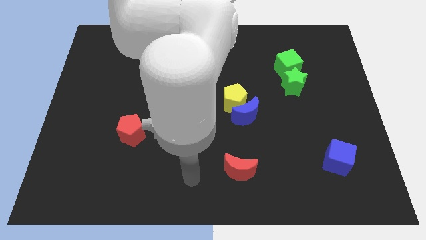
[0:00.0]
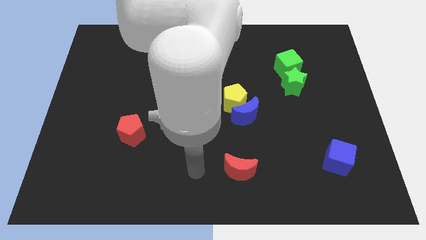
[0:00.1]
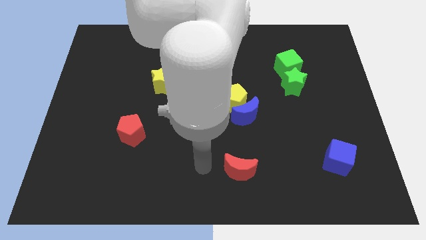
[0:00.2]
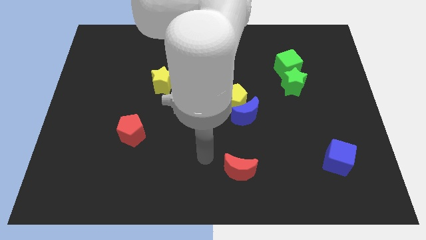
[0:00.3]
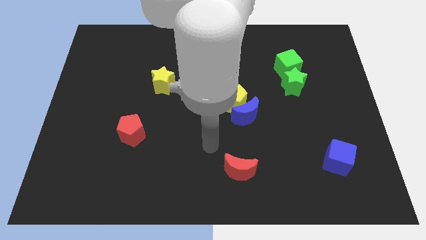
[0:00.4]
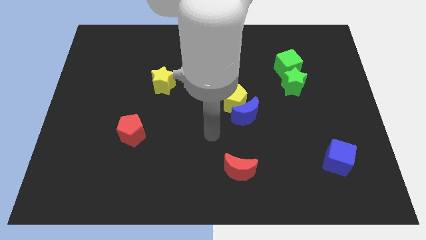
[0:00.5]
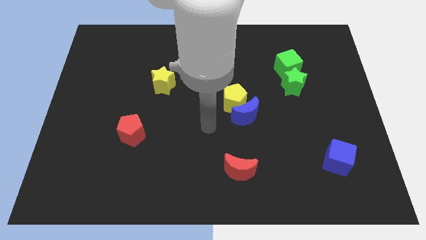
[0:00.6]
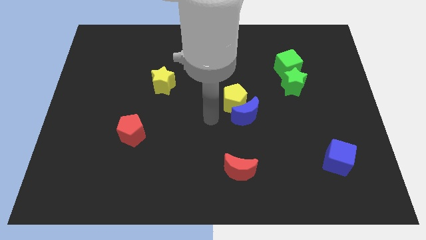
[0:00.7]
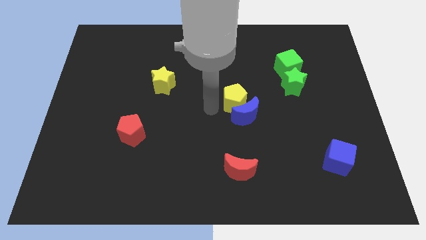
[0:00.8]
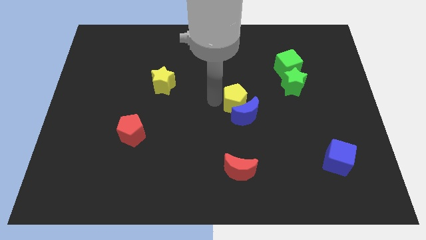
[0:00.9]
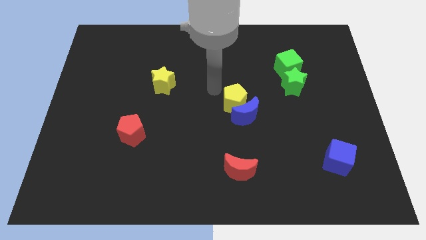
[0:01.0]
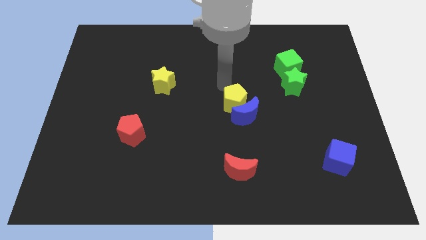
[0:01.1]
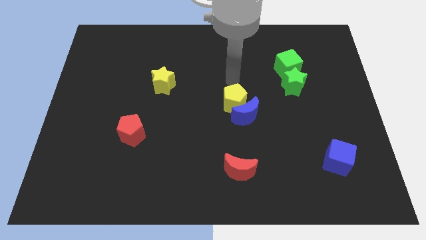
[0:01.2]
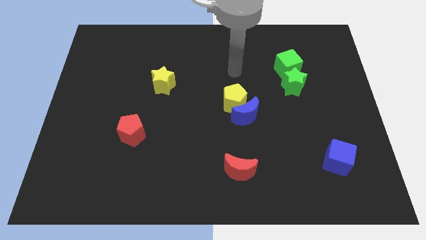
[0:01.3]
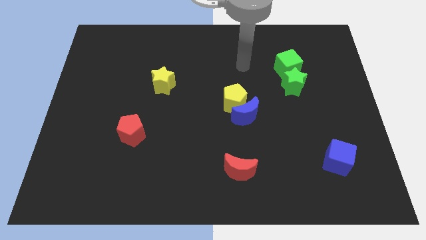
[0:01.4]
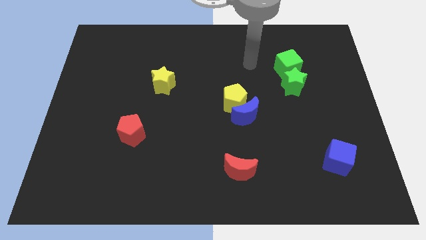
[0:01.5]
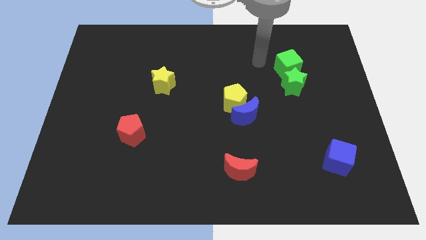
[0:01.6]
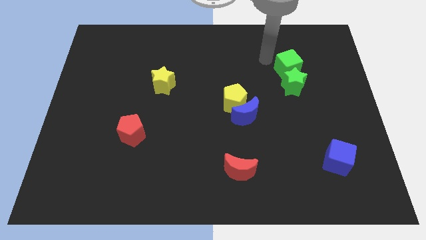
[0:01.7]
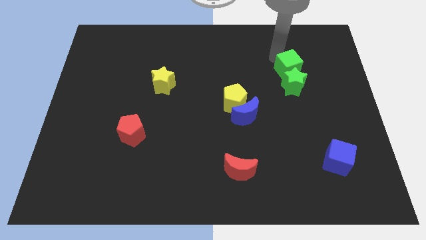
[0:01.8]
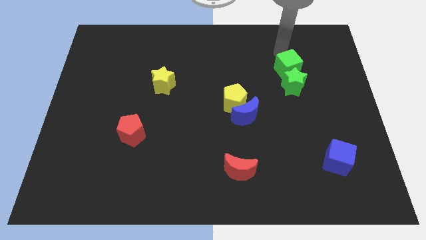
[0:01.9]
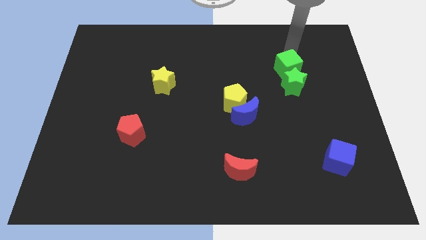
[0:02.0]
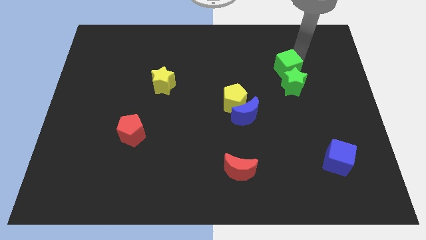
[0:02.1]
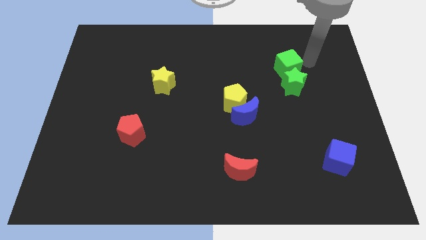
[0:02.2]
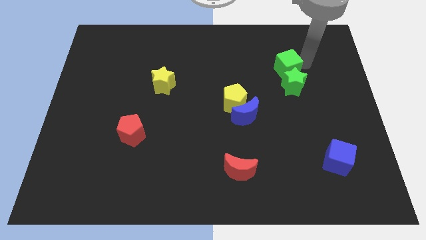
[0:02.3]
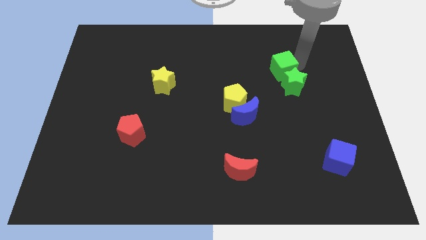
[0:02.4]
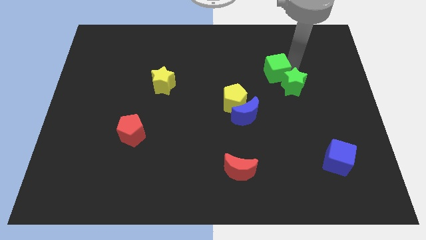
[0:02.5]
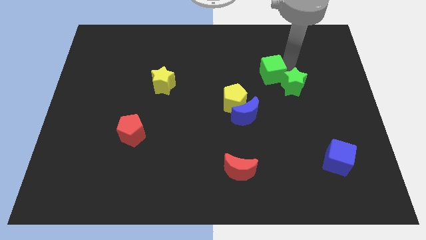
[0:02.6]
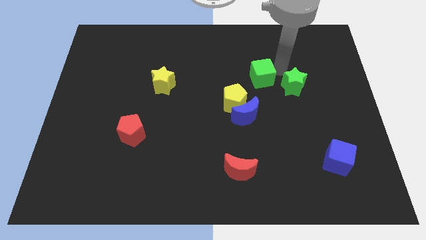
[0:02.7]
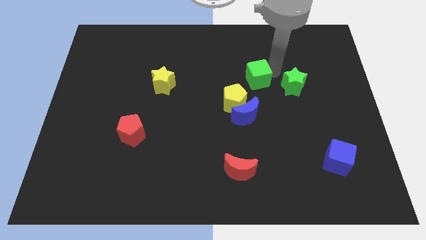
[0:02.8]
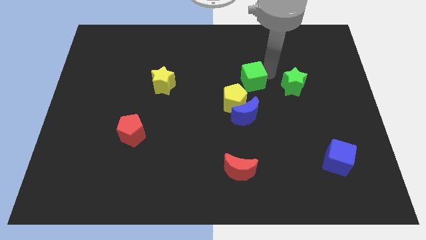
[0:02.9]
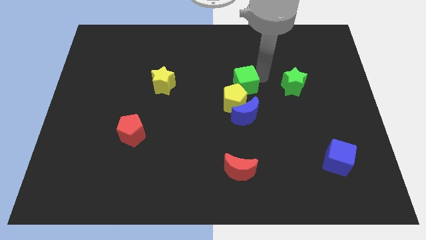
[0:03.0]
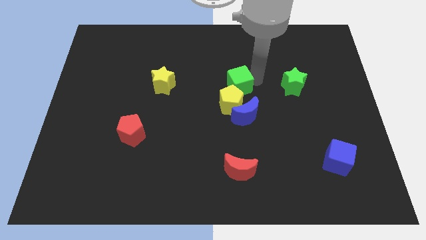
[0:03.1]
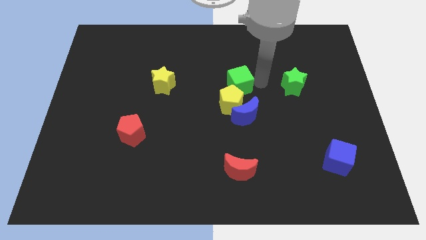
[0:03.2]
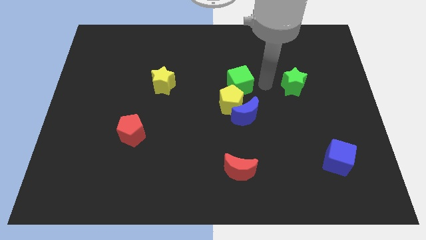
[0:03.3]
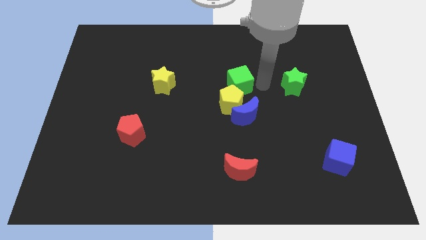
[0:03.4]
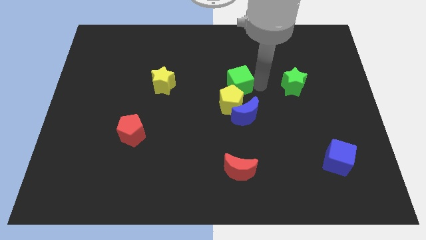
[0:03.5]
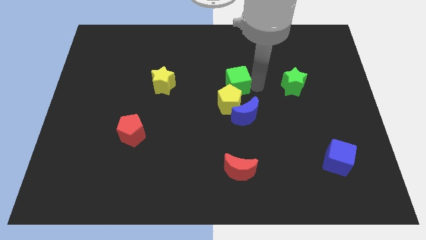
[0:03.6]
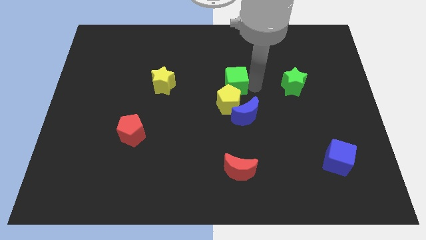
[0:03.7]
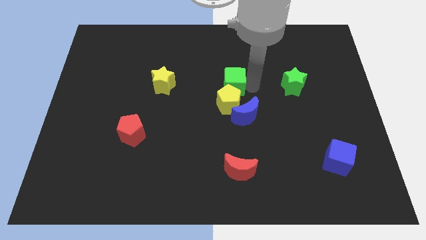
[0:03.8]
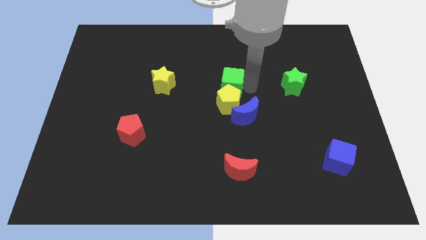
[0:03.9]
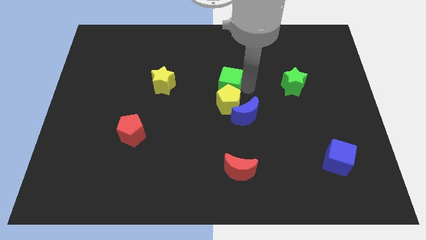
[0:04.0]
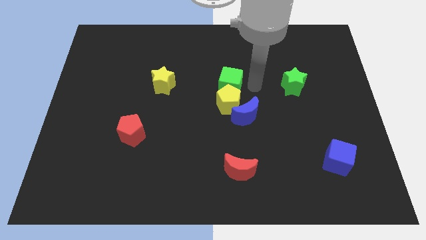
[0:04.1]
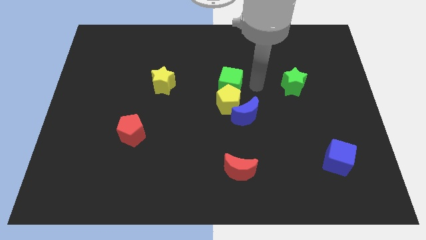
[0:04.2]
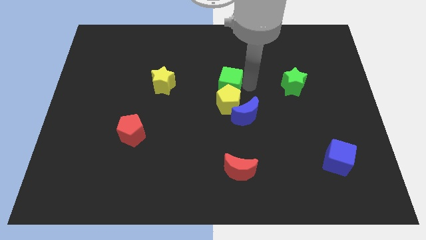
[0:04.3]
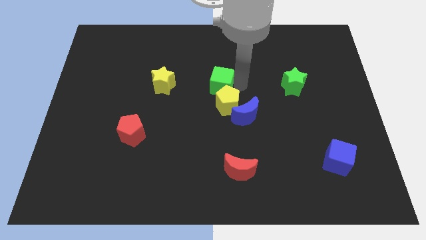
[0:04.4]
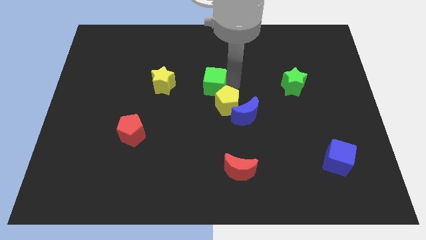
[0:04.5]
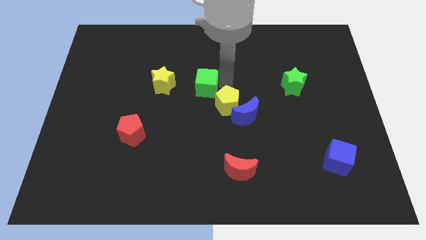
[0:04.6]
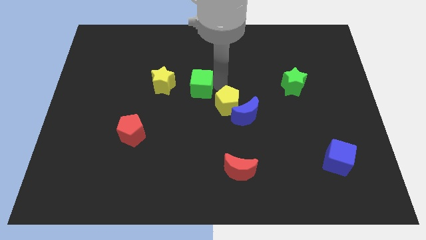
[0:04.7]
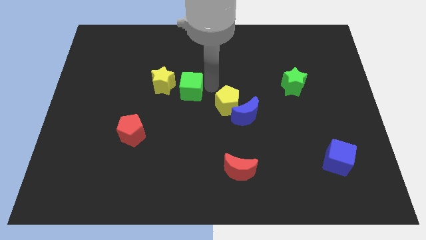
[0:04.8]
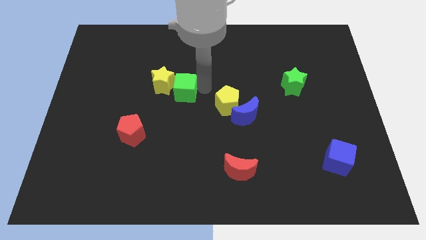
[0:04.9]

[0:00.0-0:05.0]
put the green cube towards the yellow star

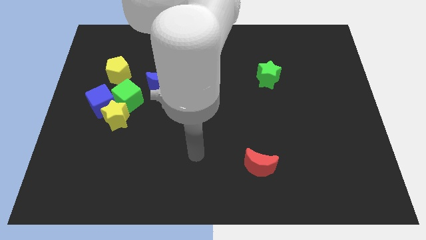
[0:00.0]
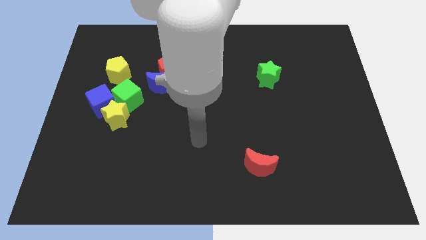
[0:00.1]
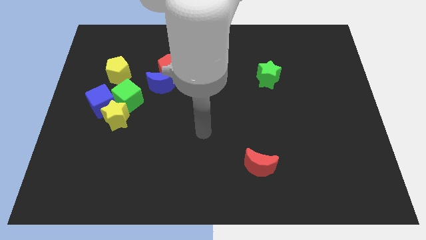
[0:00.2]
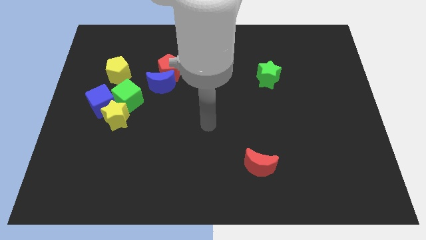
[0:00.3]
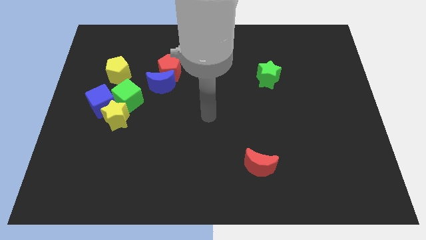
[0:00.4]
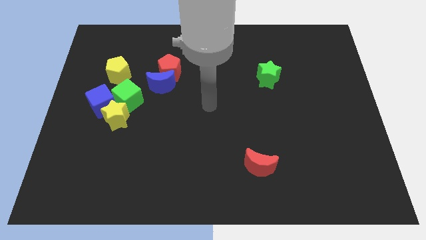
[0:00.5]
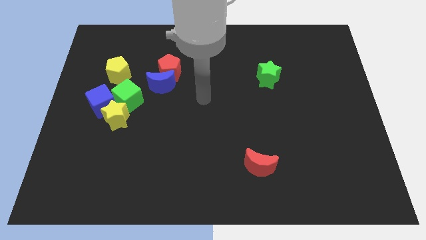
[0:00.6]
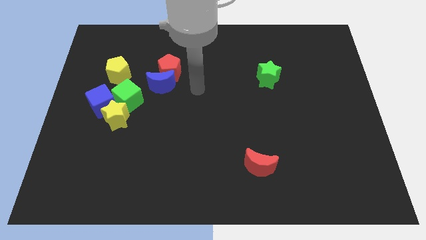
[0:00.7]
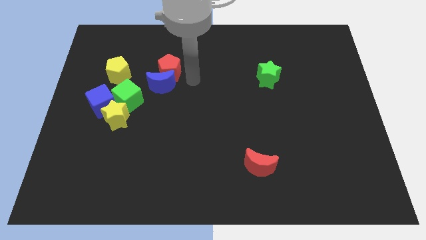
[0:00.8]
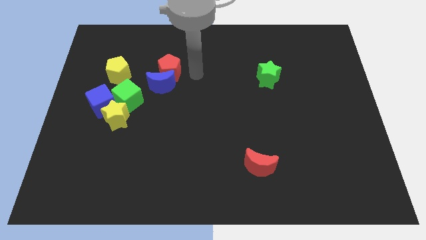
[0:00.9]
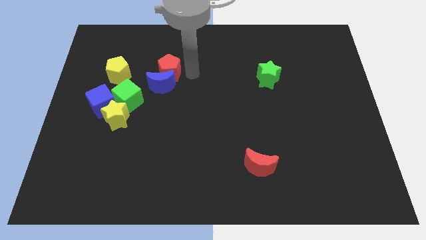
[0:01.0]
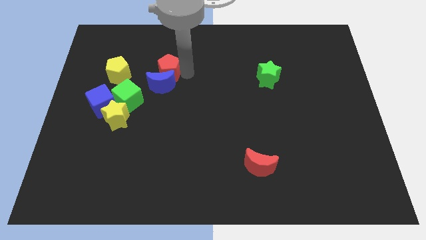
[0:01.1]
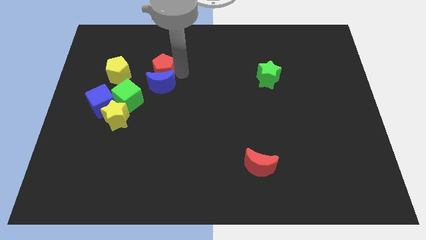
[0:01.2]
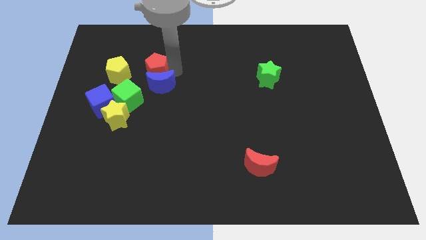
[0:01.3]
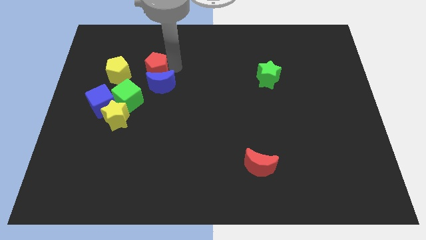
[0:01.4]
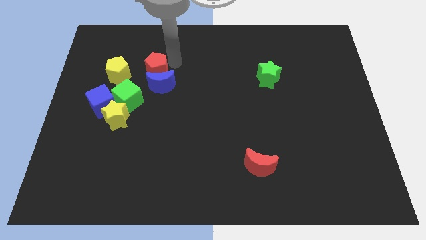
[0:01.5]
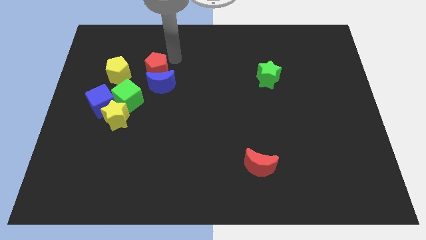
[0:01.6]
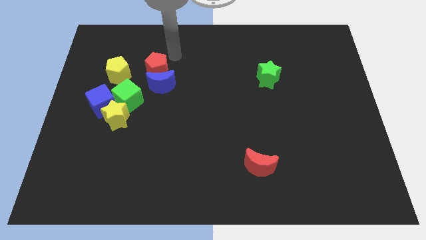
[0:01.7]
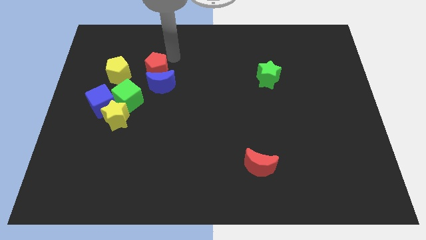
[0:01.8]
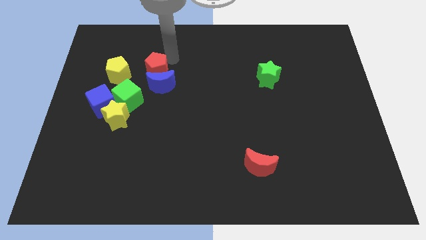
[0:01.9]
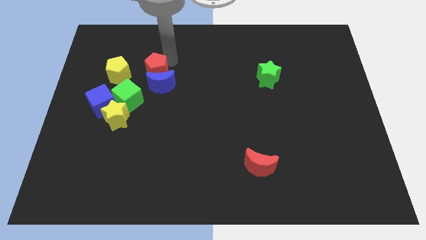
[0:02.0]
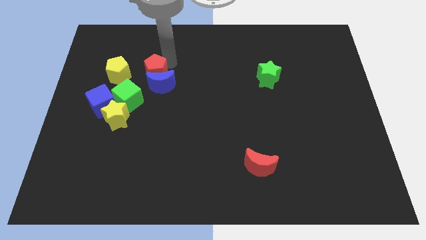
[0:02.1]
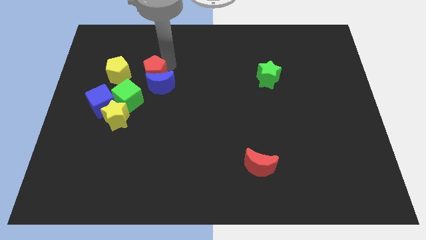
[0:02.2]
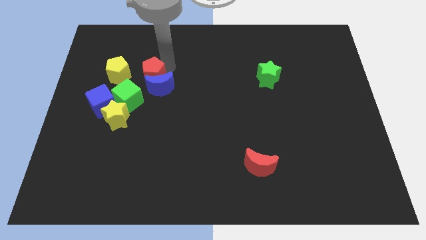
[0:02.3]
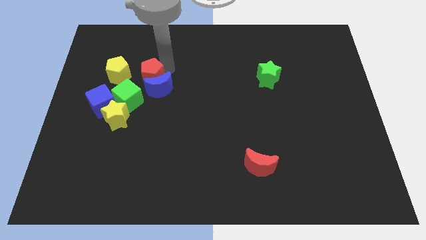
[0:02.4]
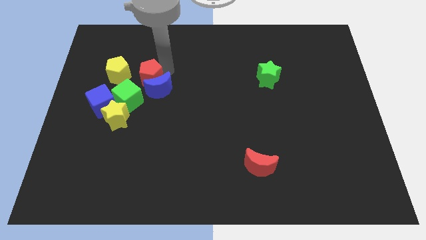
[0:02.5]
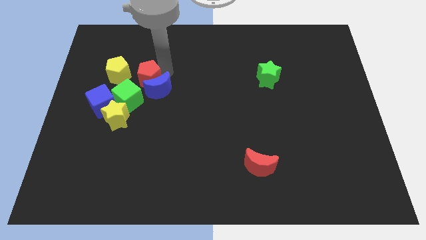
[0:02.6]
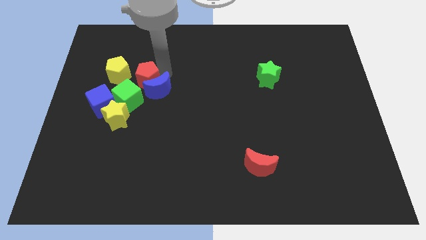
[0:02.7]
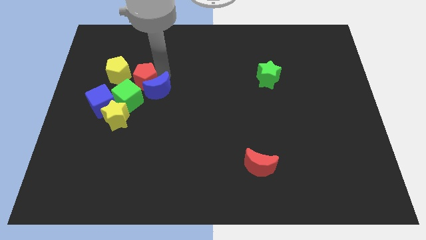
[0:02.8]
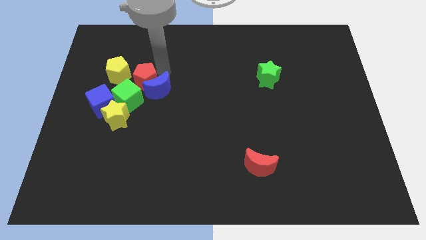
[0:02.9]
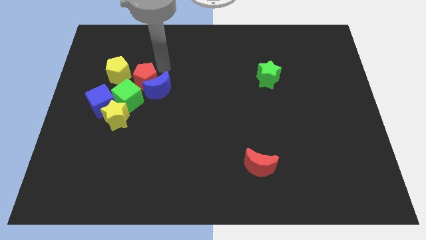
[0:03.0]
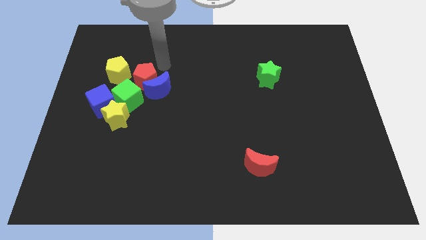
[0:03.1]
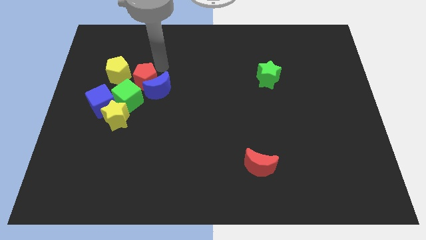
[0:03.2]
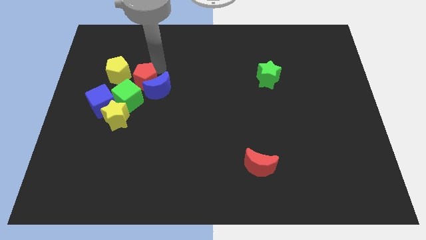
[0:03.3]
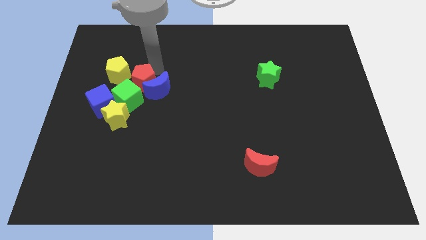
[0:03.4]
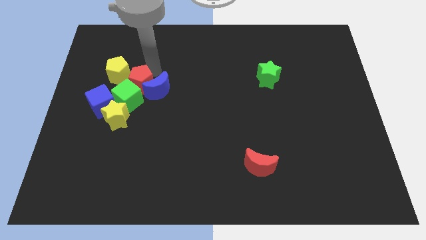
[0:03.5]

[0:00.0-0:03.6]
push the red pentagon next to the green cube
